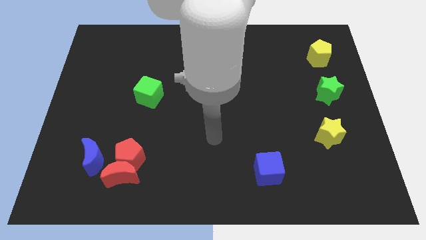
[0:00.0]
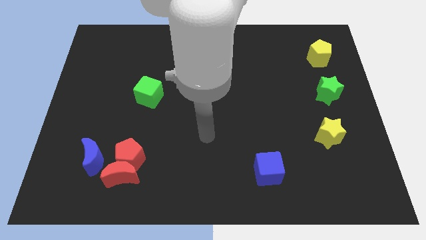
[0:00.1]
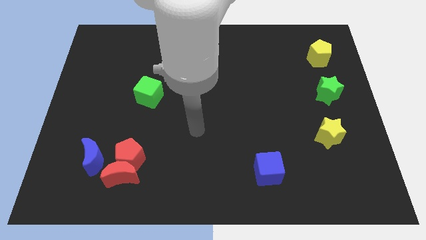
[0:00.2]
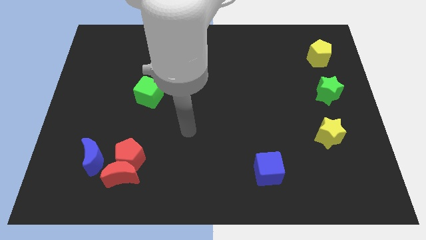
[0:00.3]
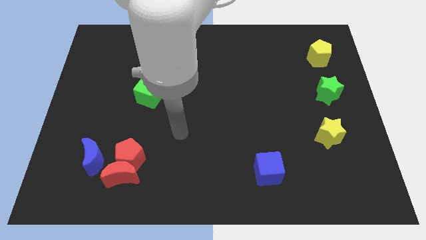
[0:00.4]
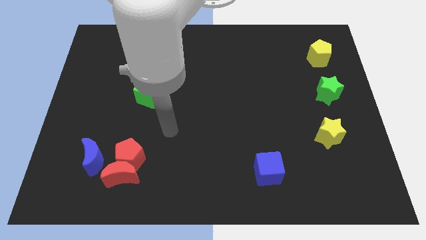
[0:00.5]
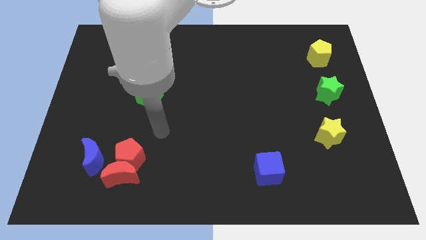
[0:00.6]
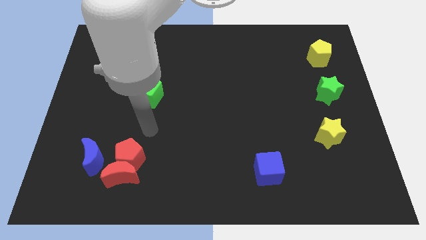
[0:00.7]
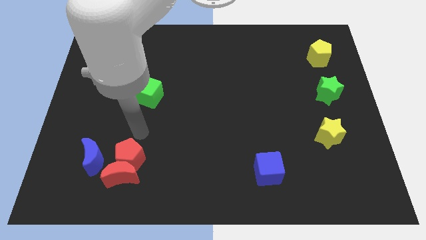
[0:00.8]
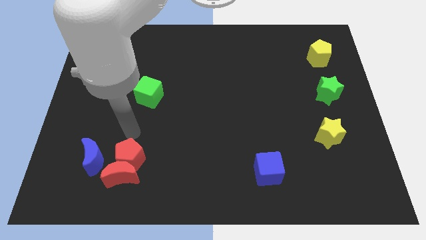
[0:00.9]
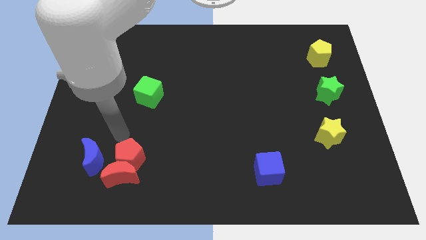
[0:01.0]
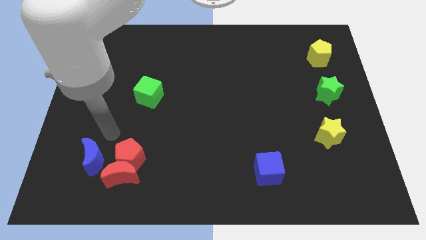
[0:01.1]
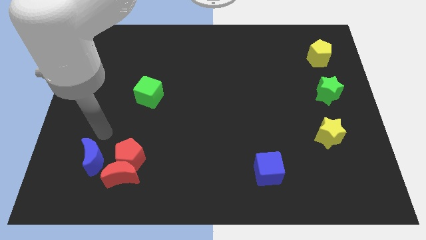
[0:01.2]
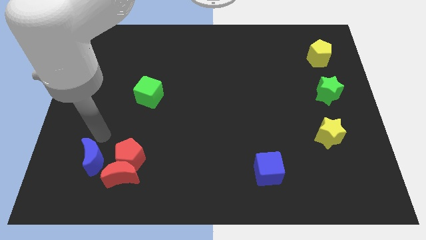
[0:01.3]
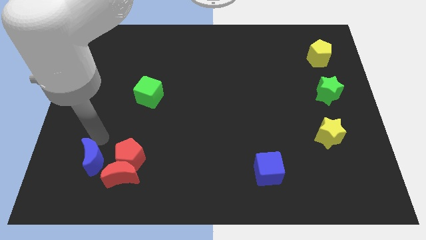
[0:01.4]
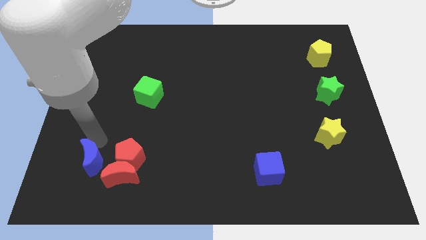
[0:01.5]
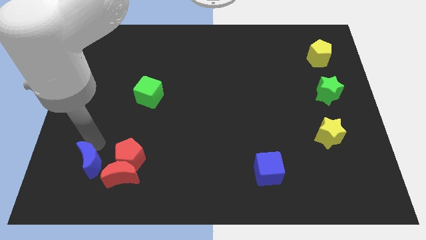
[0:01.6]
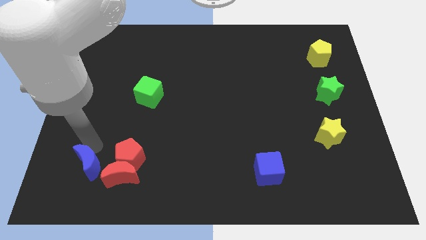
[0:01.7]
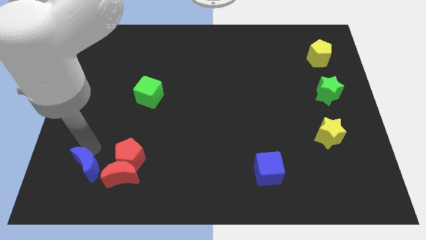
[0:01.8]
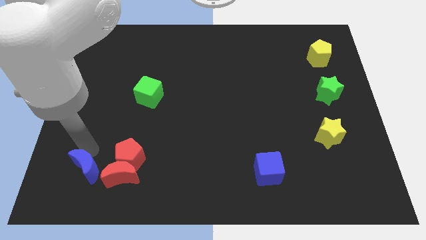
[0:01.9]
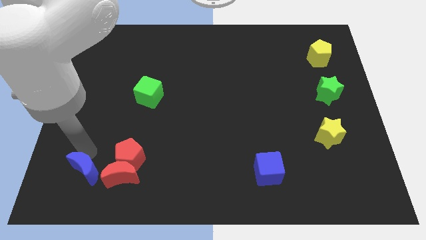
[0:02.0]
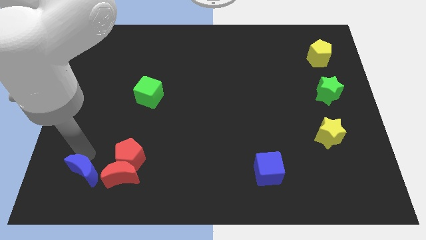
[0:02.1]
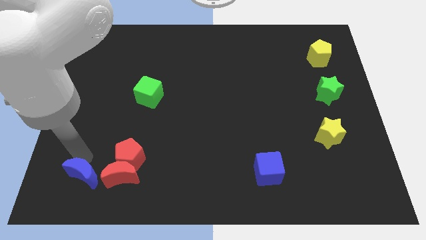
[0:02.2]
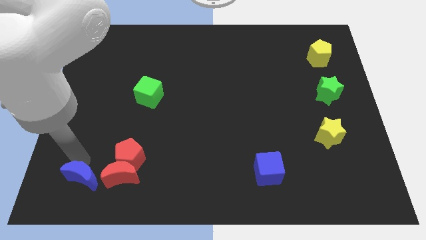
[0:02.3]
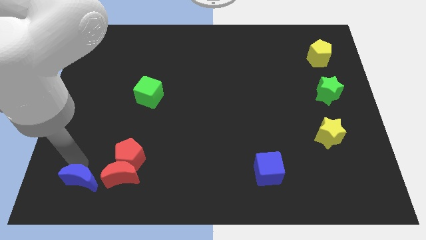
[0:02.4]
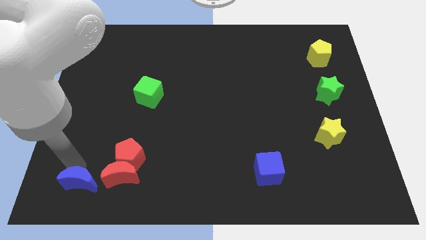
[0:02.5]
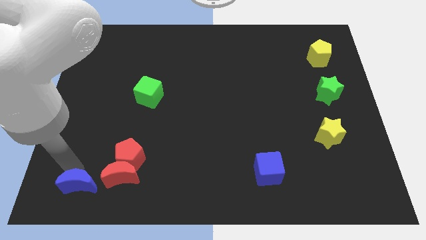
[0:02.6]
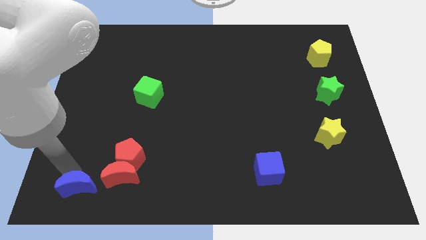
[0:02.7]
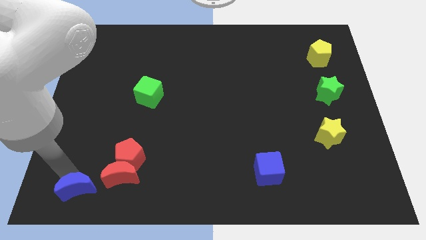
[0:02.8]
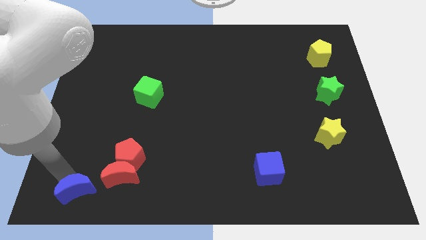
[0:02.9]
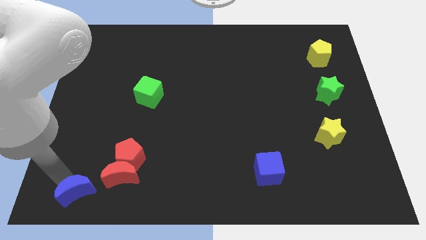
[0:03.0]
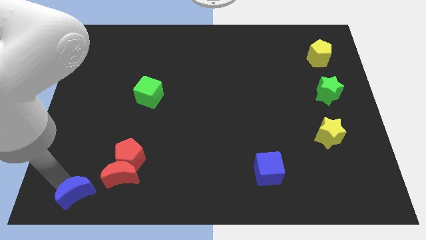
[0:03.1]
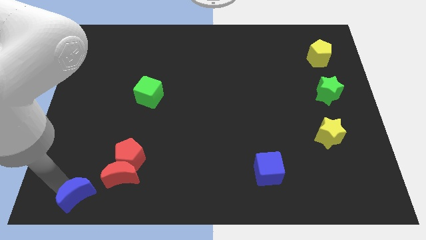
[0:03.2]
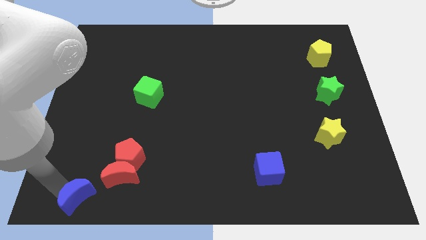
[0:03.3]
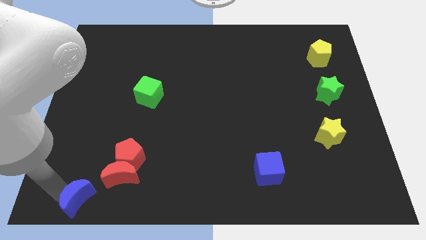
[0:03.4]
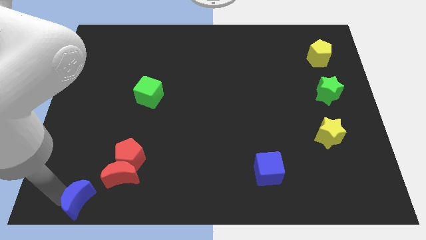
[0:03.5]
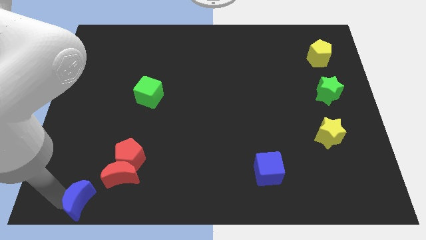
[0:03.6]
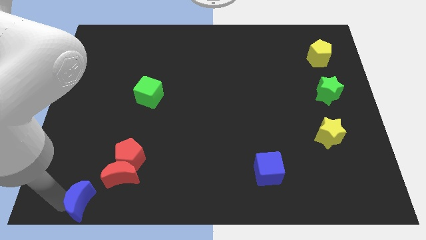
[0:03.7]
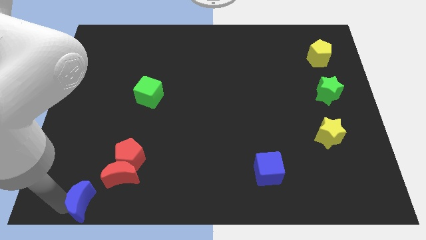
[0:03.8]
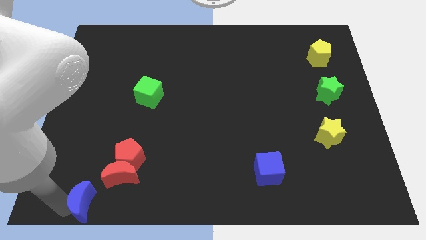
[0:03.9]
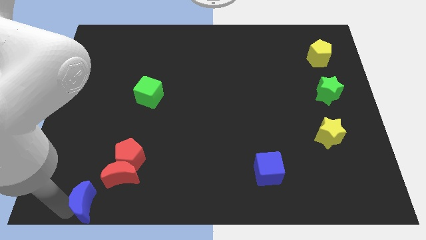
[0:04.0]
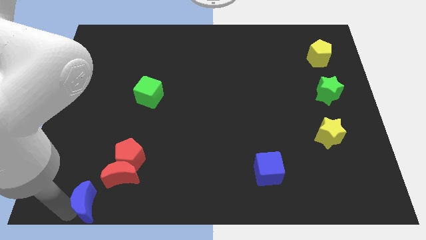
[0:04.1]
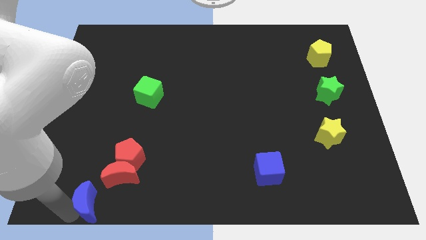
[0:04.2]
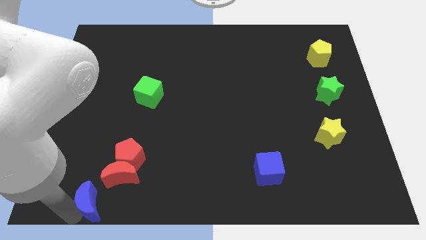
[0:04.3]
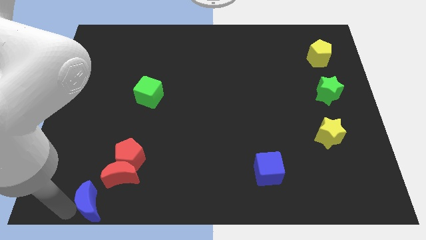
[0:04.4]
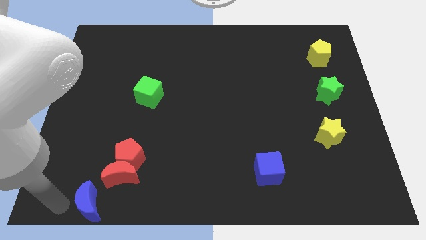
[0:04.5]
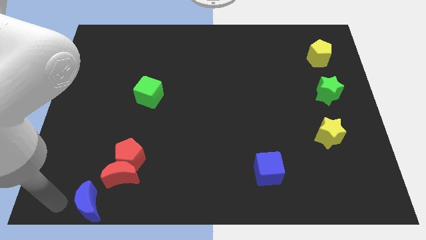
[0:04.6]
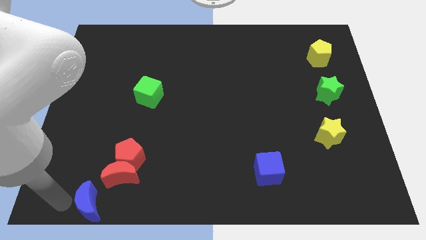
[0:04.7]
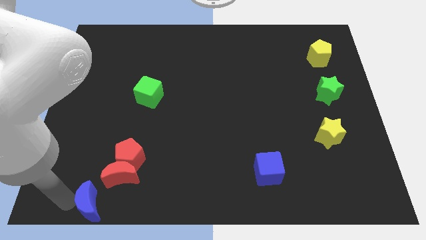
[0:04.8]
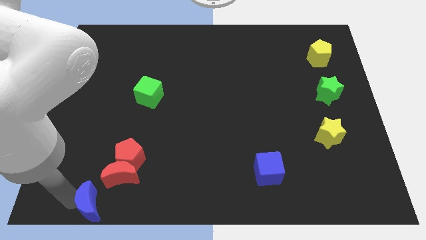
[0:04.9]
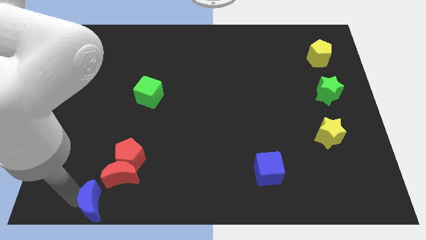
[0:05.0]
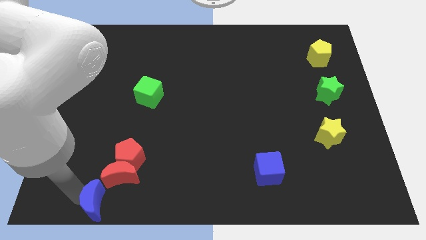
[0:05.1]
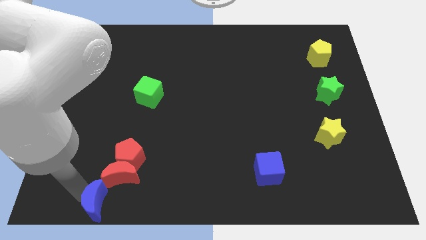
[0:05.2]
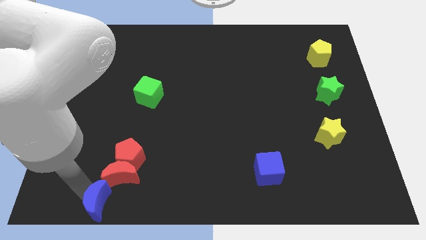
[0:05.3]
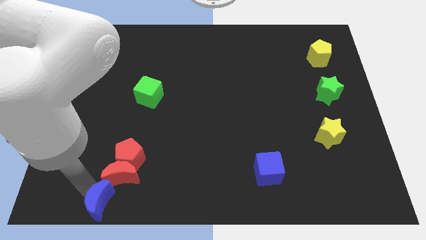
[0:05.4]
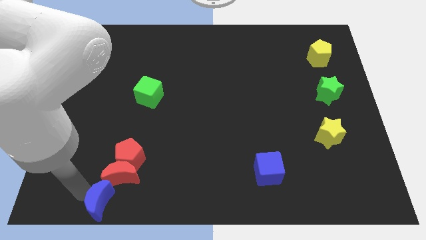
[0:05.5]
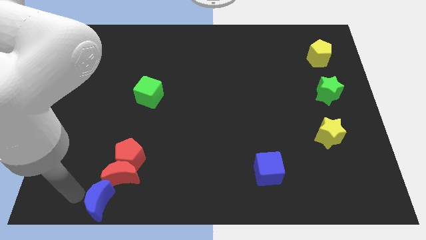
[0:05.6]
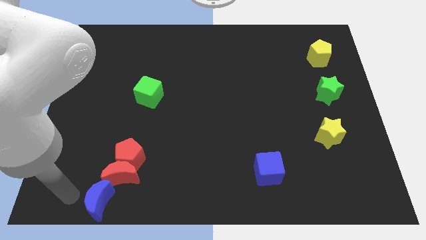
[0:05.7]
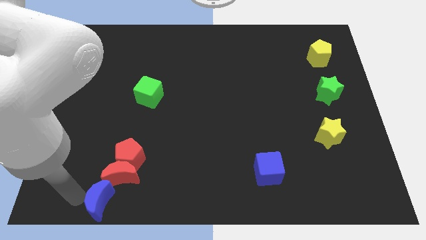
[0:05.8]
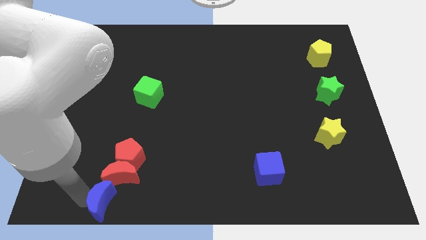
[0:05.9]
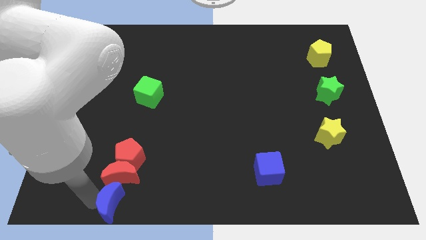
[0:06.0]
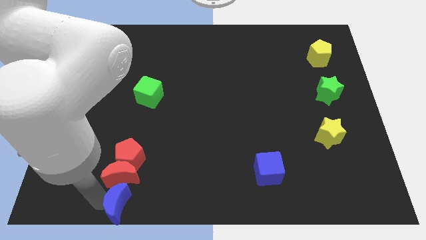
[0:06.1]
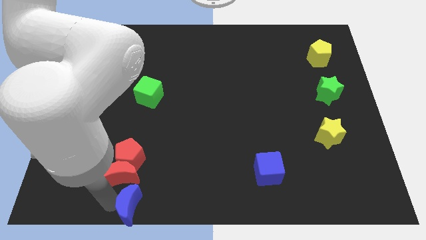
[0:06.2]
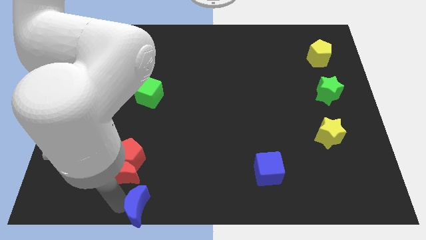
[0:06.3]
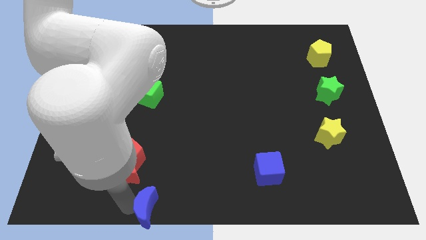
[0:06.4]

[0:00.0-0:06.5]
move the blue moon to the bottom
